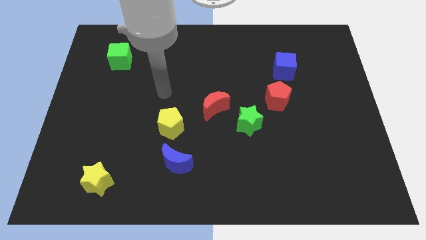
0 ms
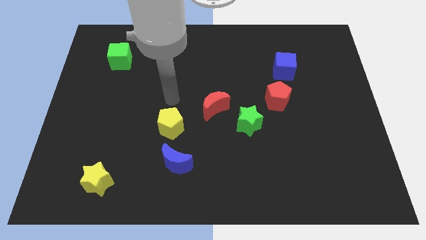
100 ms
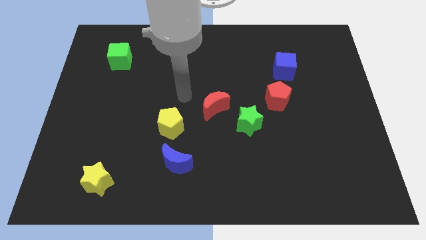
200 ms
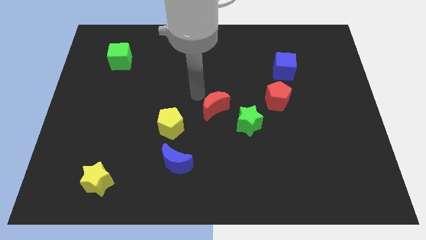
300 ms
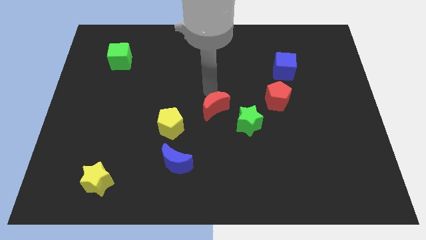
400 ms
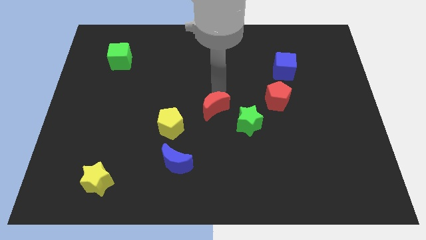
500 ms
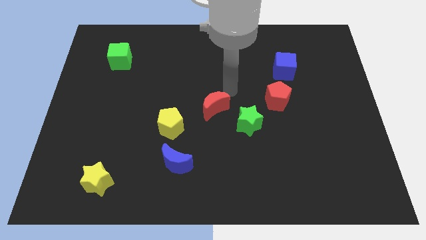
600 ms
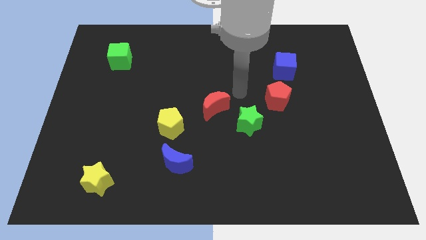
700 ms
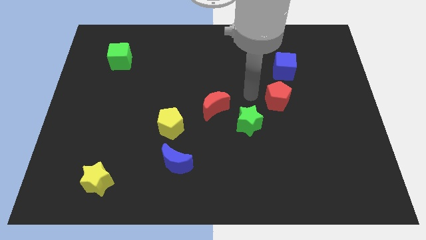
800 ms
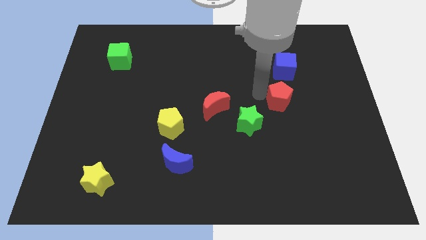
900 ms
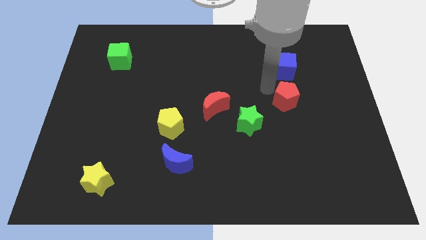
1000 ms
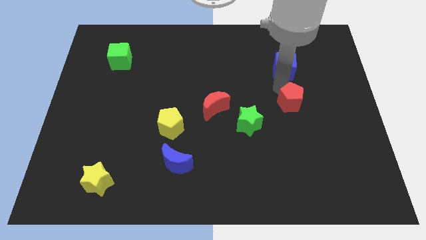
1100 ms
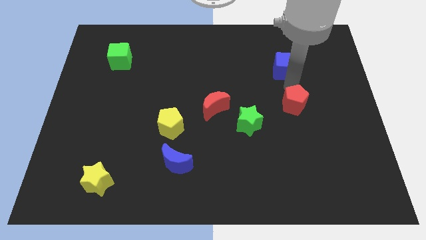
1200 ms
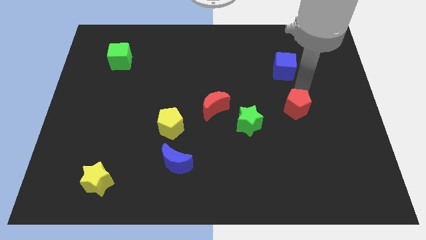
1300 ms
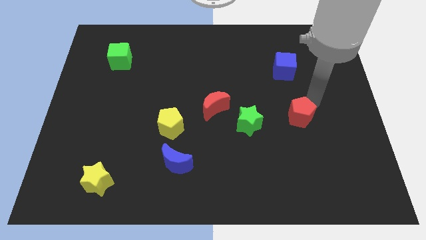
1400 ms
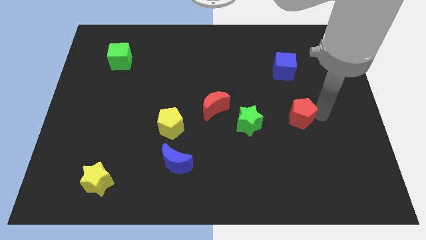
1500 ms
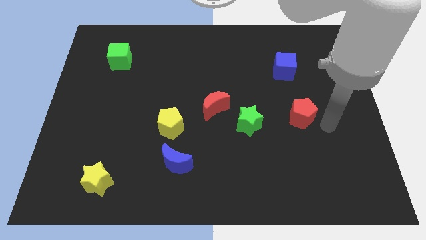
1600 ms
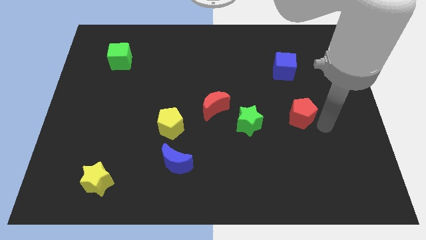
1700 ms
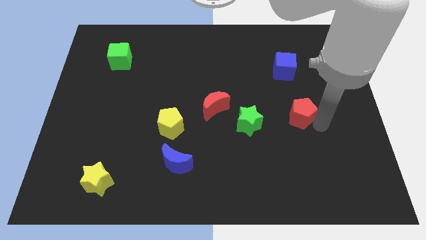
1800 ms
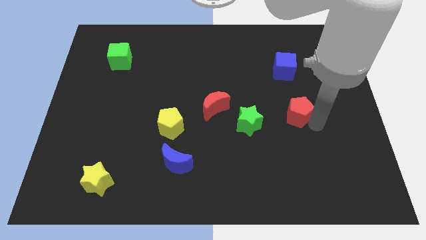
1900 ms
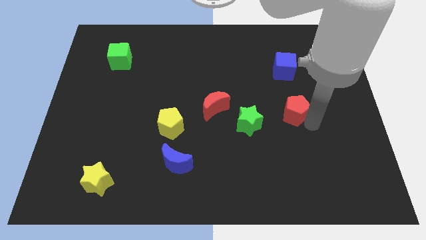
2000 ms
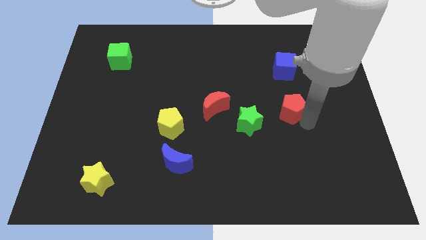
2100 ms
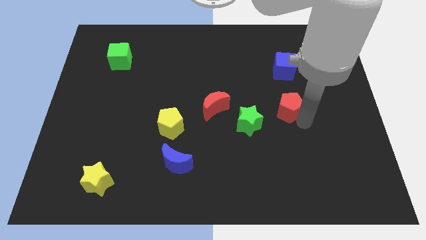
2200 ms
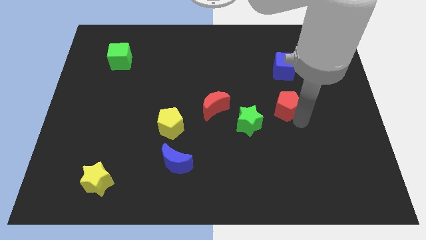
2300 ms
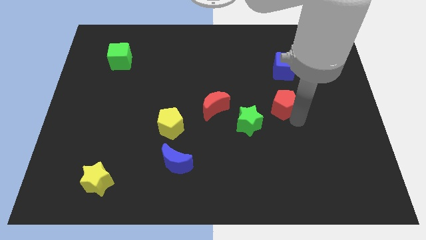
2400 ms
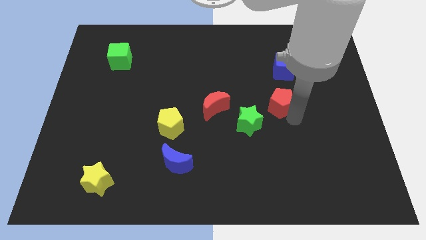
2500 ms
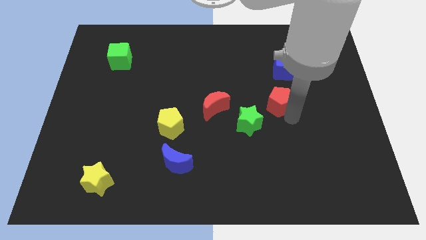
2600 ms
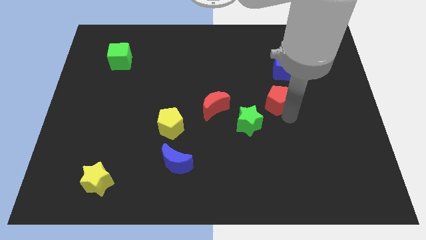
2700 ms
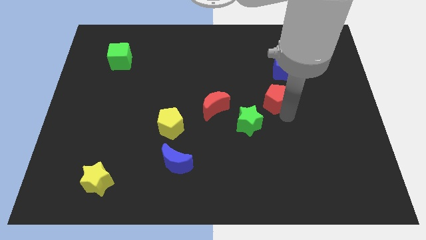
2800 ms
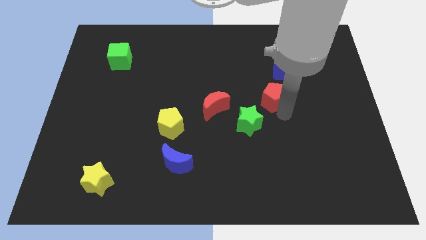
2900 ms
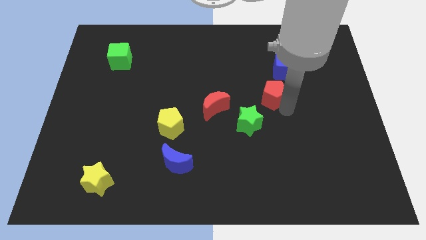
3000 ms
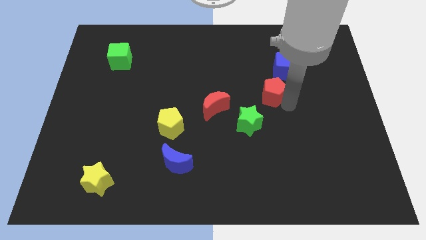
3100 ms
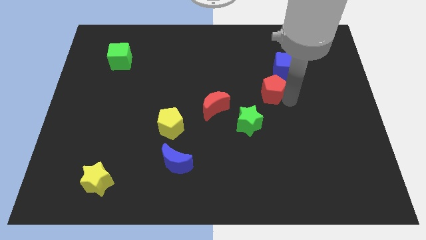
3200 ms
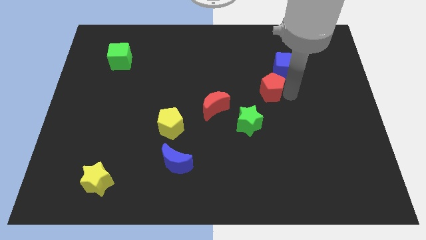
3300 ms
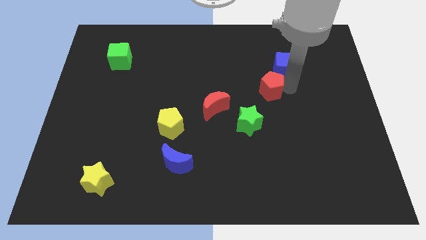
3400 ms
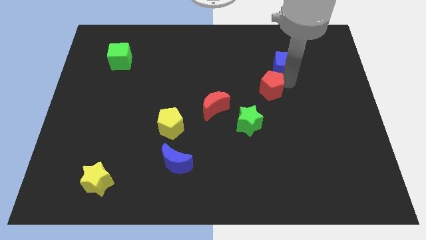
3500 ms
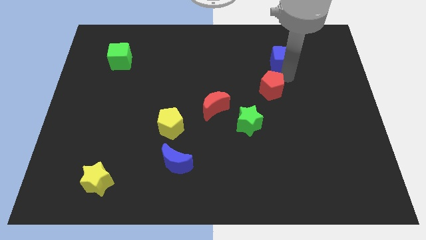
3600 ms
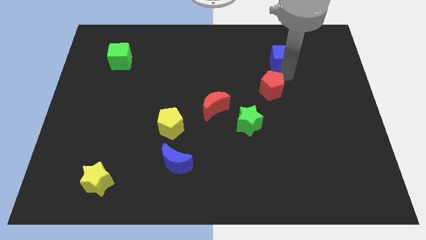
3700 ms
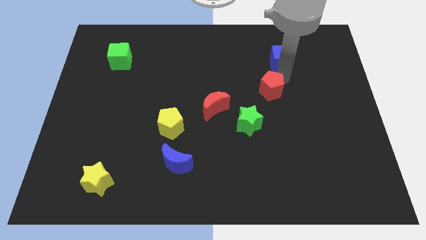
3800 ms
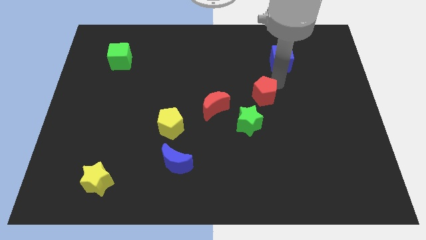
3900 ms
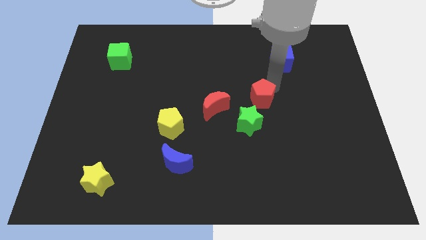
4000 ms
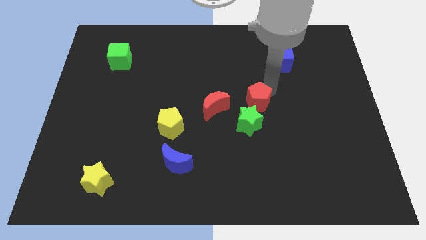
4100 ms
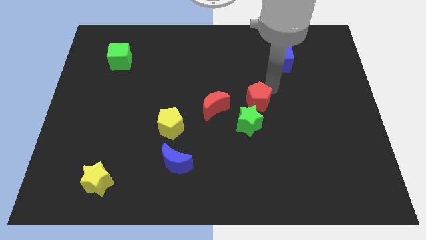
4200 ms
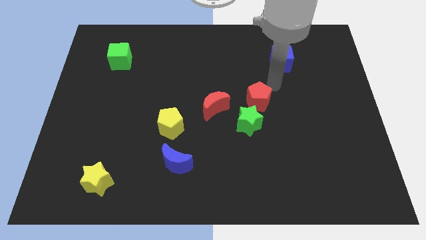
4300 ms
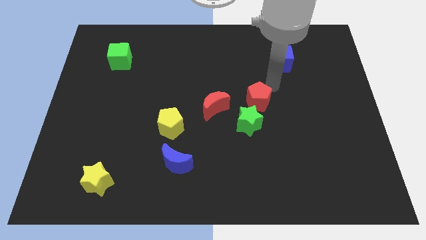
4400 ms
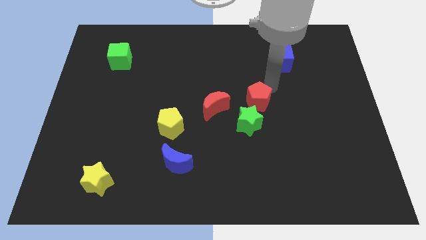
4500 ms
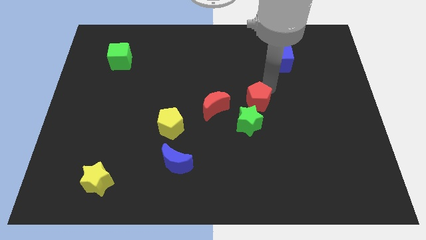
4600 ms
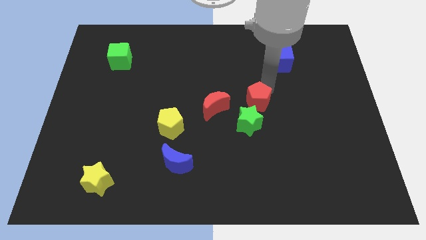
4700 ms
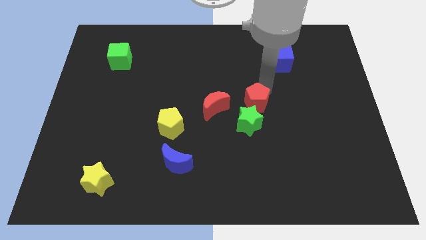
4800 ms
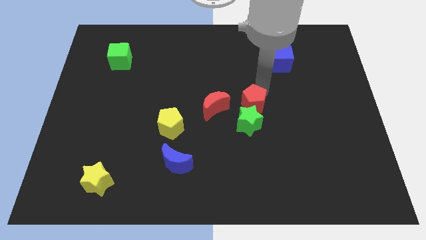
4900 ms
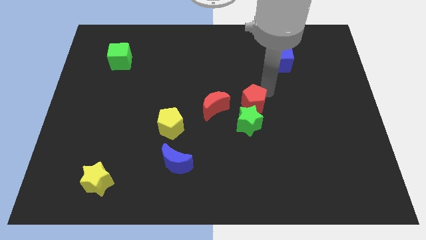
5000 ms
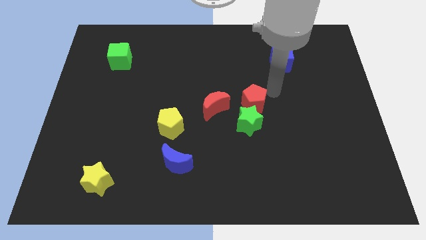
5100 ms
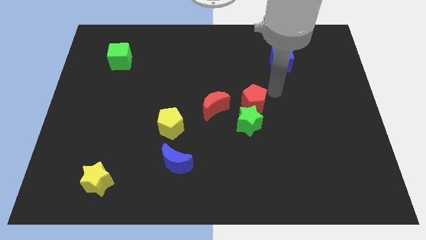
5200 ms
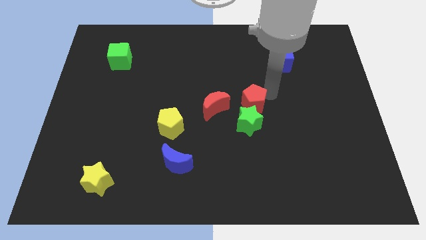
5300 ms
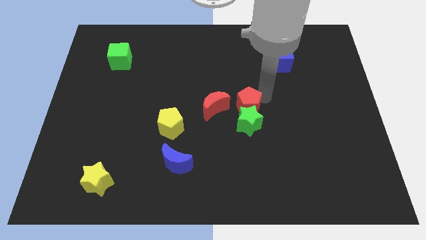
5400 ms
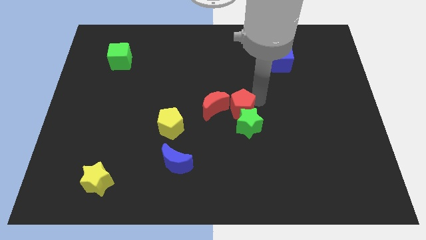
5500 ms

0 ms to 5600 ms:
slightly slide the red pentagon downwards and then to the left

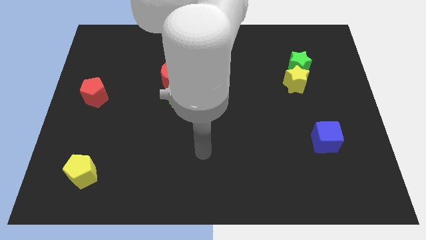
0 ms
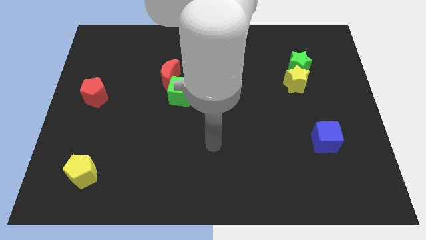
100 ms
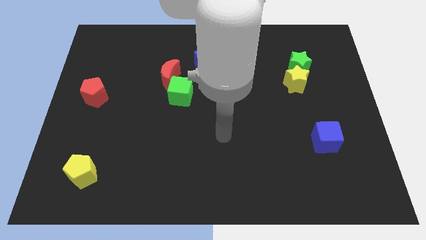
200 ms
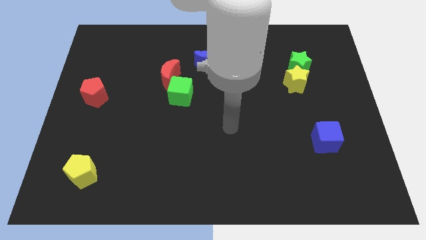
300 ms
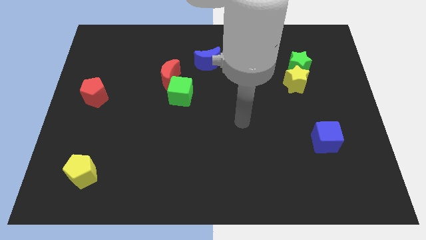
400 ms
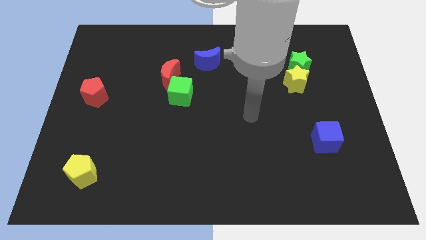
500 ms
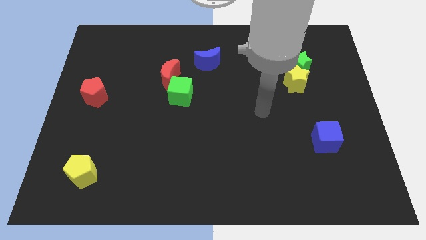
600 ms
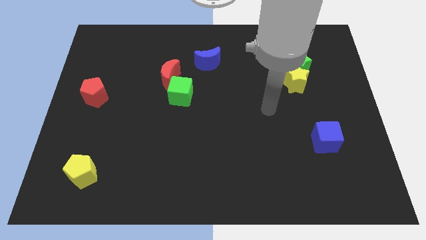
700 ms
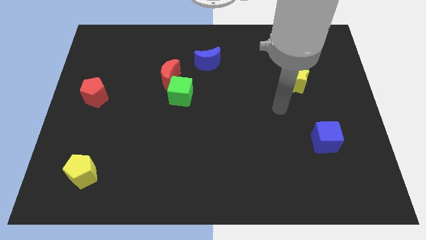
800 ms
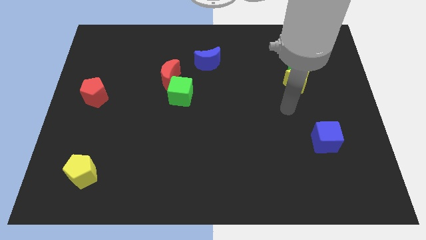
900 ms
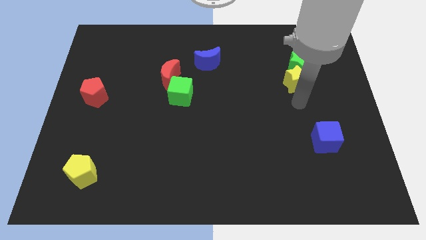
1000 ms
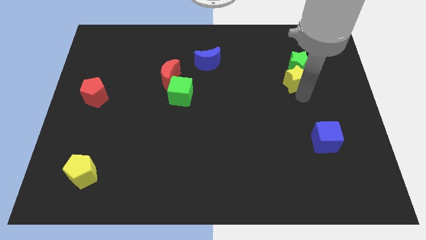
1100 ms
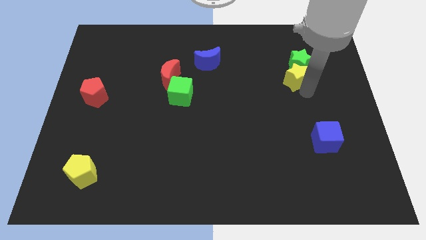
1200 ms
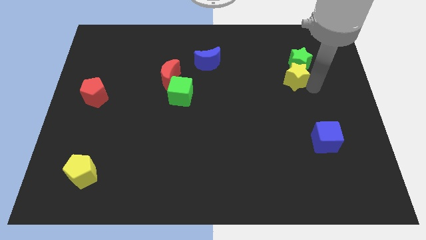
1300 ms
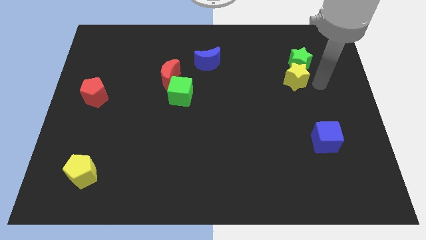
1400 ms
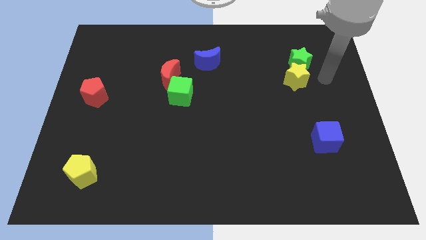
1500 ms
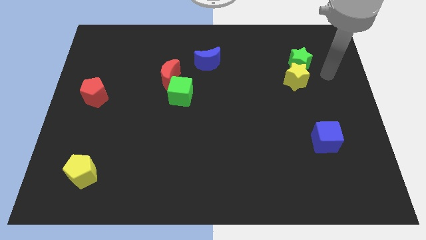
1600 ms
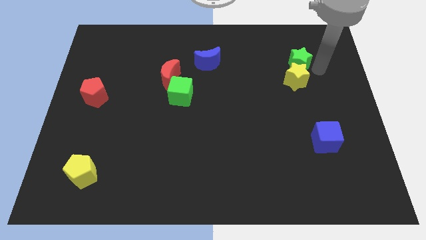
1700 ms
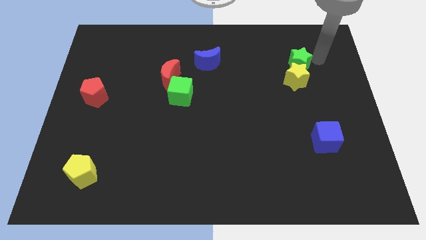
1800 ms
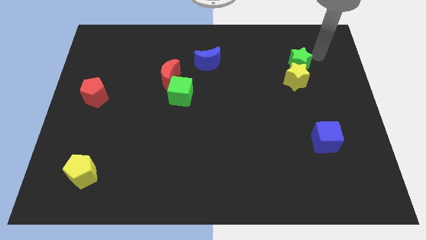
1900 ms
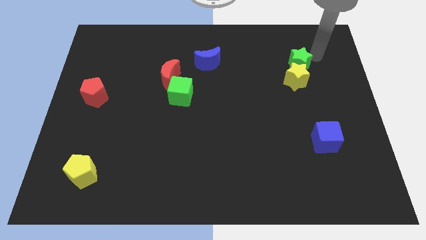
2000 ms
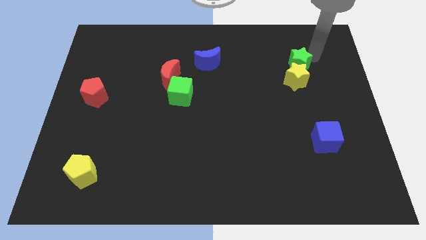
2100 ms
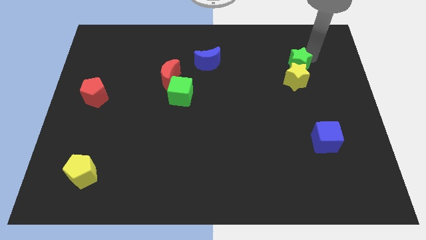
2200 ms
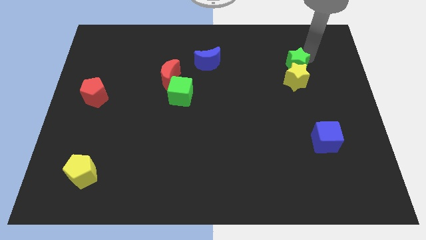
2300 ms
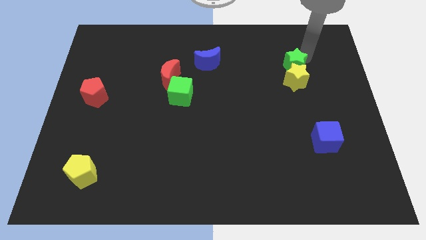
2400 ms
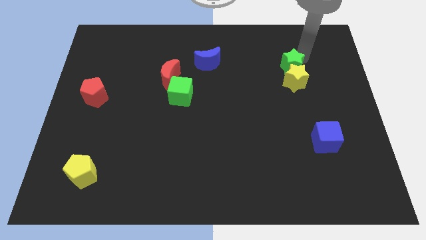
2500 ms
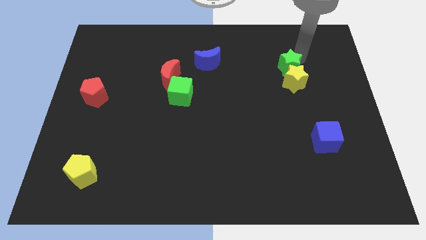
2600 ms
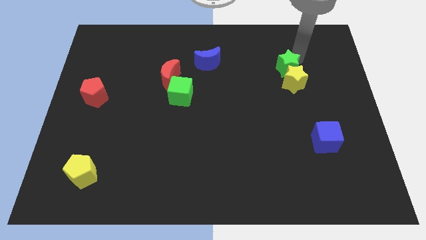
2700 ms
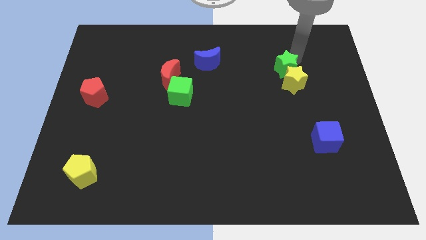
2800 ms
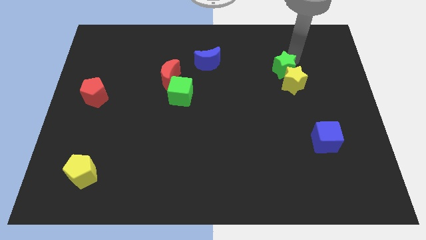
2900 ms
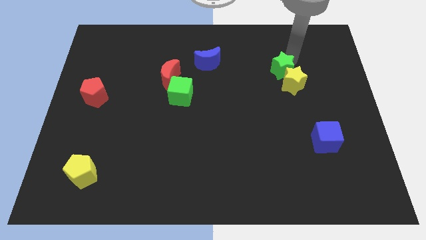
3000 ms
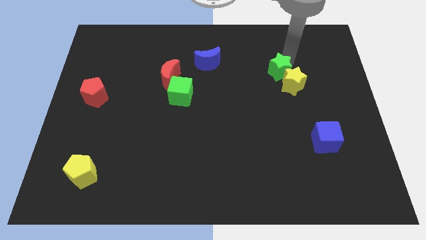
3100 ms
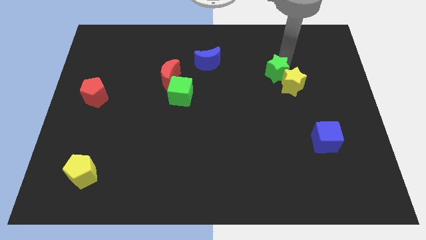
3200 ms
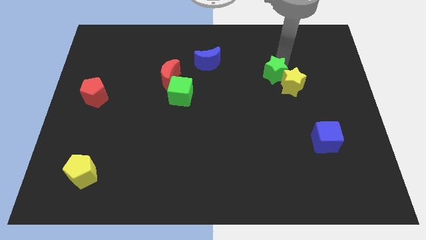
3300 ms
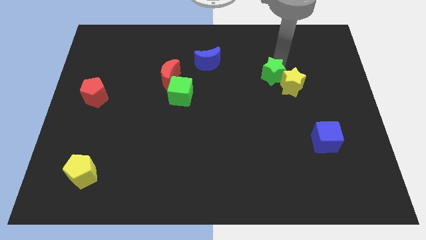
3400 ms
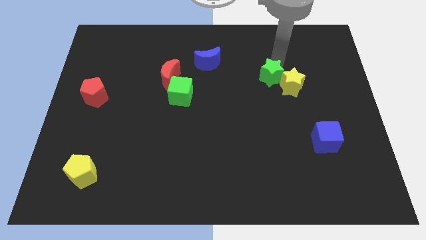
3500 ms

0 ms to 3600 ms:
push the green star downwards and to the left diagonally a little bit
